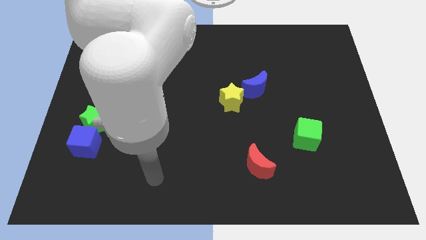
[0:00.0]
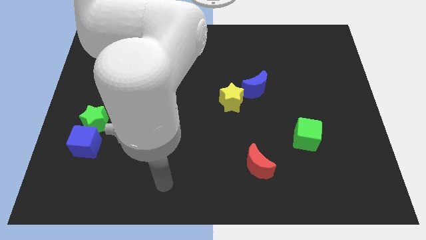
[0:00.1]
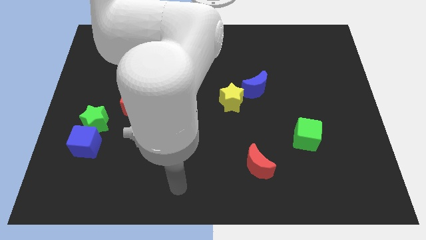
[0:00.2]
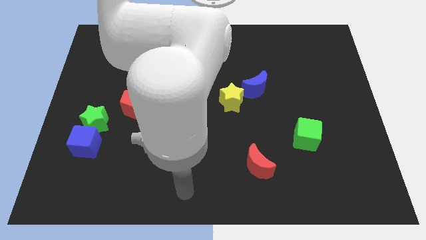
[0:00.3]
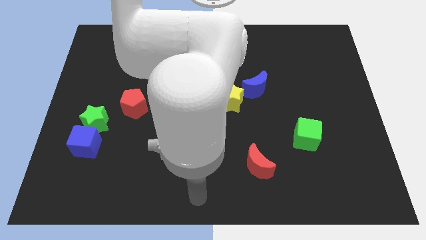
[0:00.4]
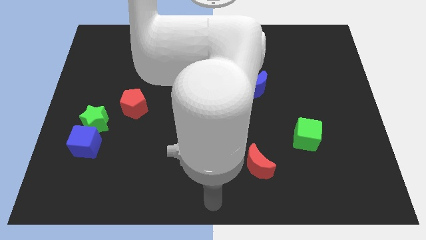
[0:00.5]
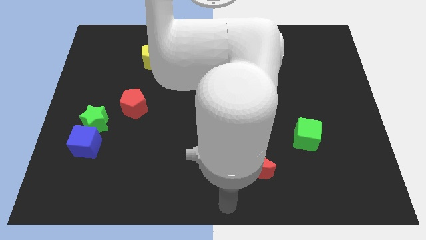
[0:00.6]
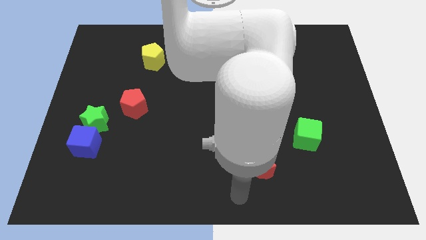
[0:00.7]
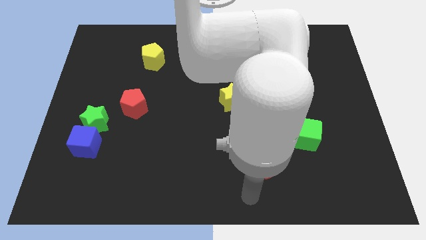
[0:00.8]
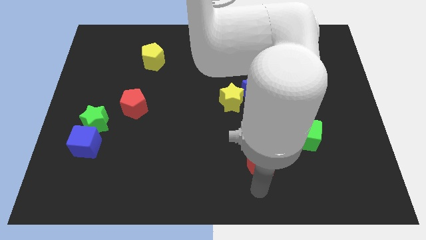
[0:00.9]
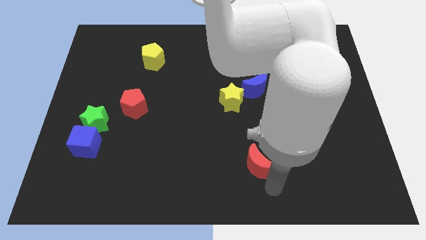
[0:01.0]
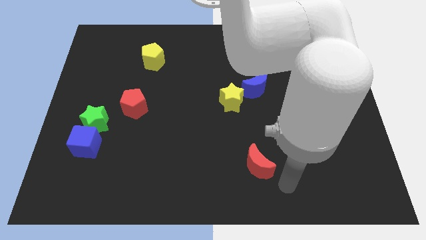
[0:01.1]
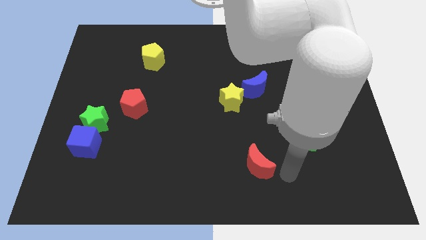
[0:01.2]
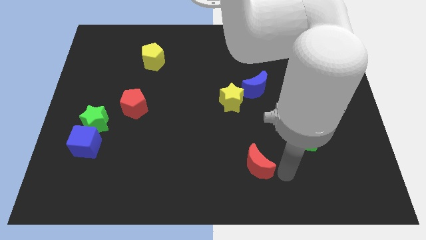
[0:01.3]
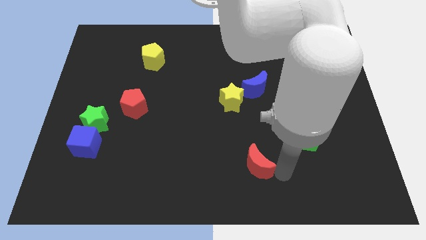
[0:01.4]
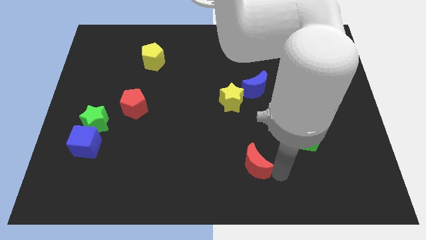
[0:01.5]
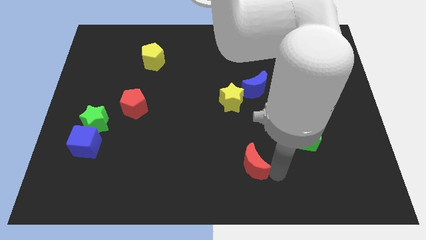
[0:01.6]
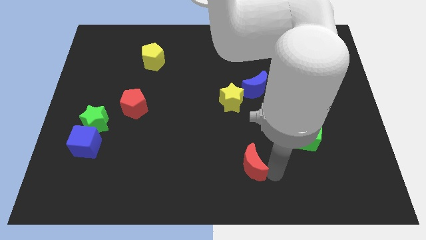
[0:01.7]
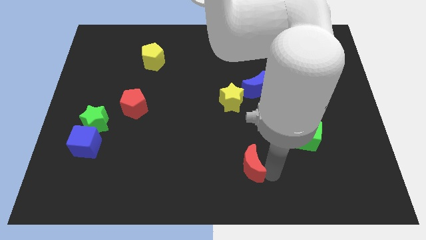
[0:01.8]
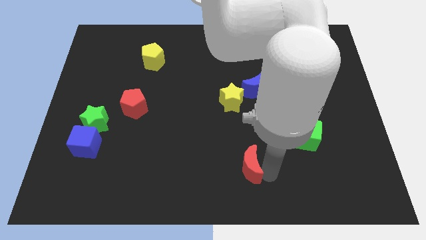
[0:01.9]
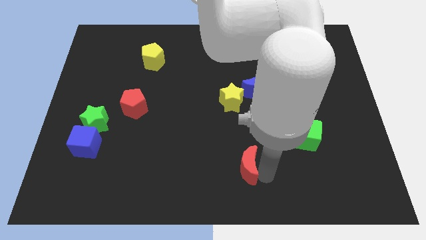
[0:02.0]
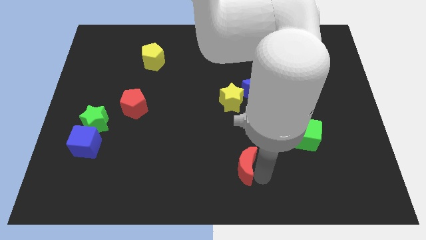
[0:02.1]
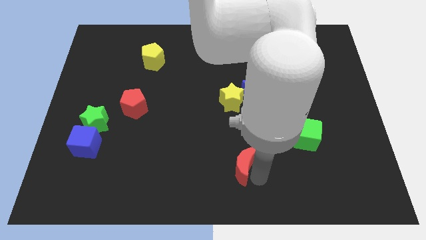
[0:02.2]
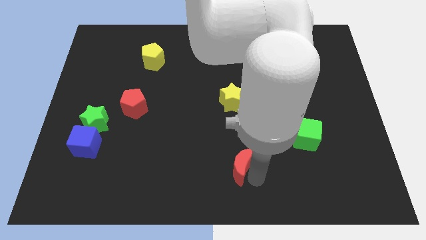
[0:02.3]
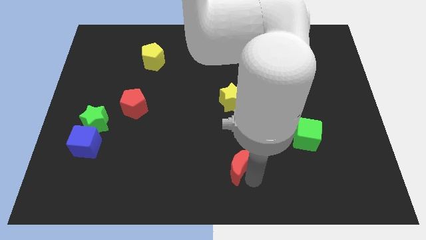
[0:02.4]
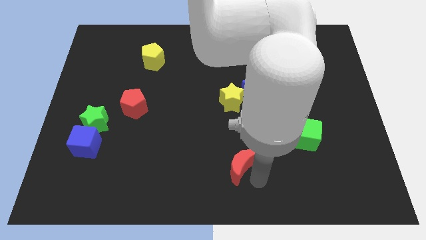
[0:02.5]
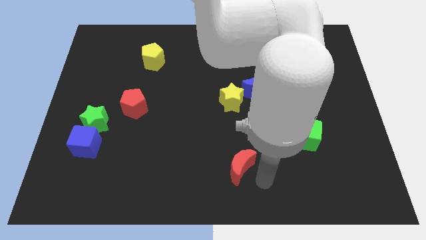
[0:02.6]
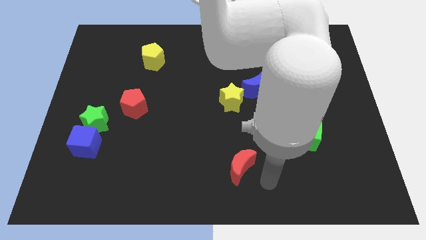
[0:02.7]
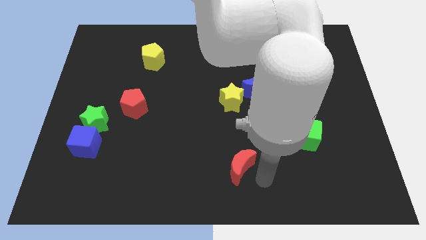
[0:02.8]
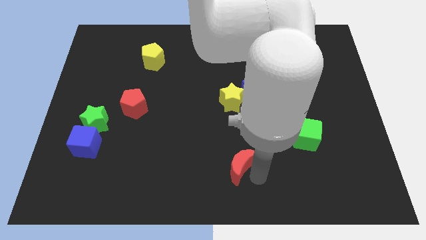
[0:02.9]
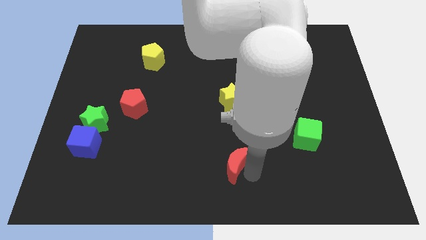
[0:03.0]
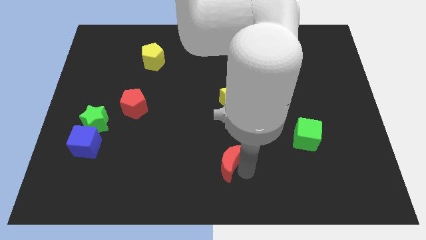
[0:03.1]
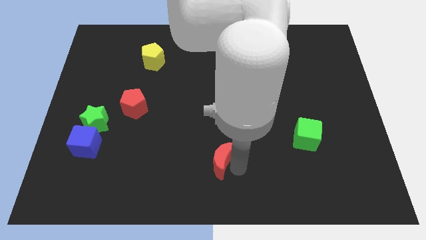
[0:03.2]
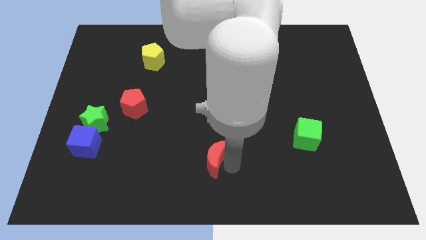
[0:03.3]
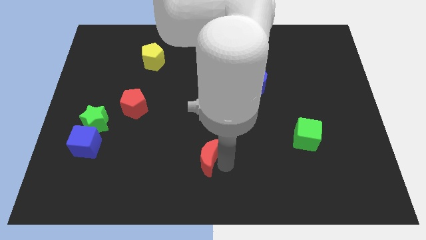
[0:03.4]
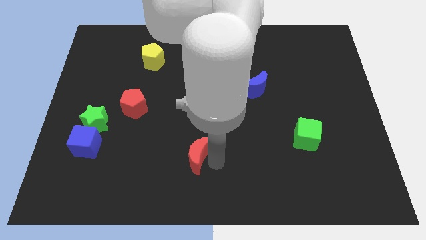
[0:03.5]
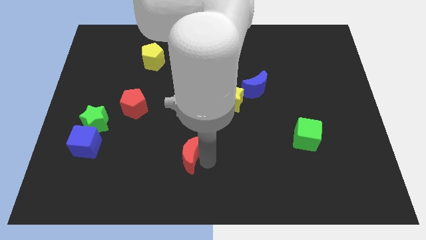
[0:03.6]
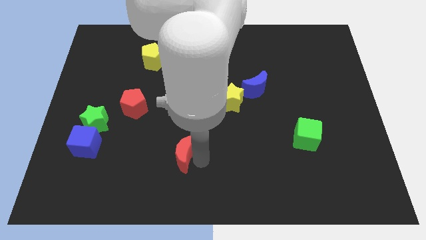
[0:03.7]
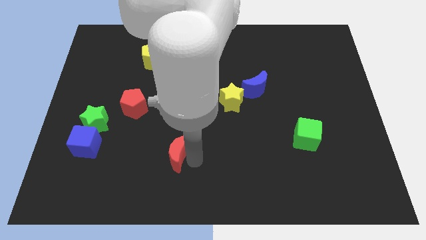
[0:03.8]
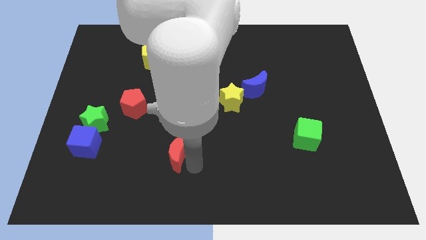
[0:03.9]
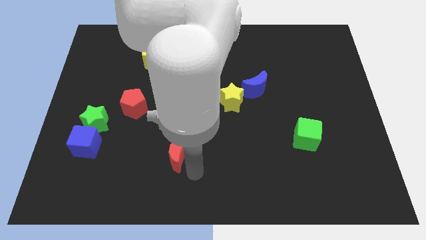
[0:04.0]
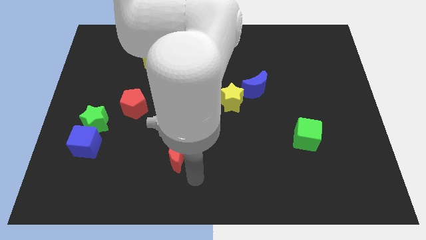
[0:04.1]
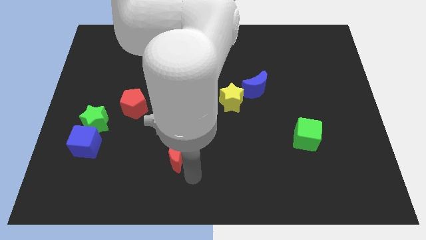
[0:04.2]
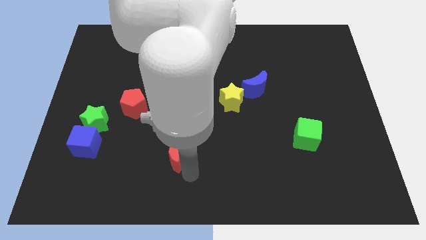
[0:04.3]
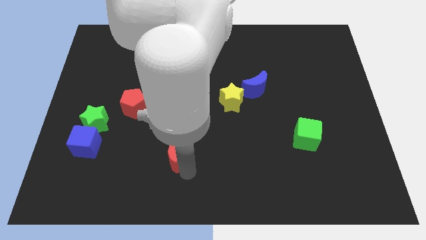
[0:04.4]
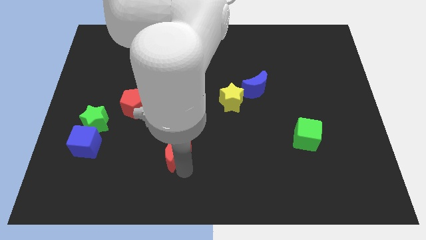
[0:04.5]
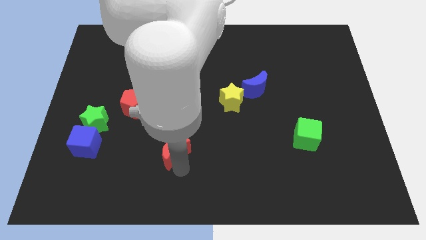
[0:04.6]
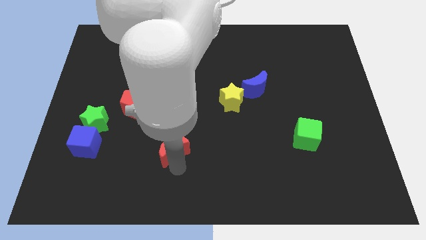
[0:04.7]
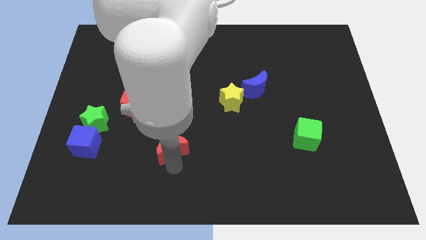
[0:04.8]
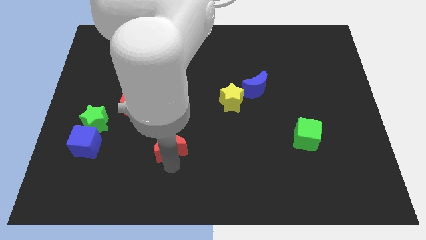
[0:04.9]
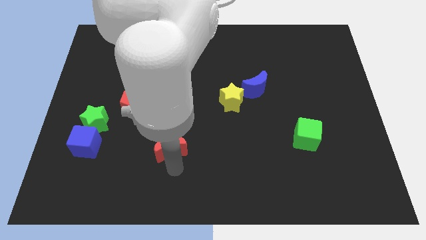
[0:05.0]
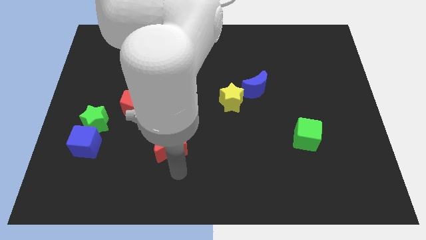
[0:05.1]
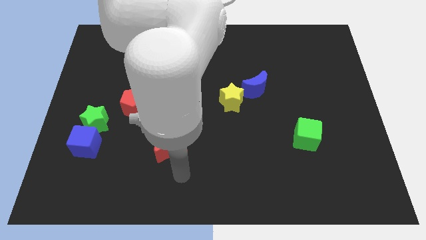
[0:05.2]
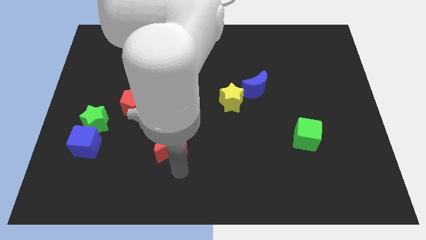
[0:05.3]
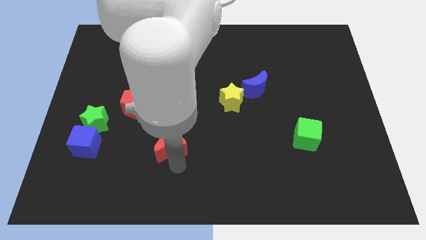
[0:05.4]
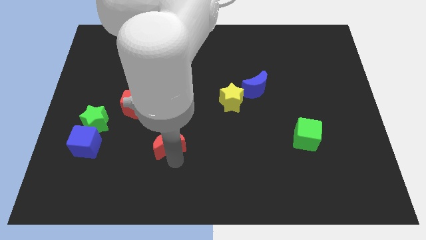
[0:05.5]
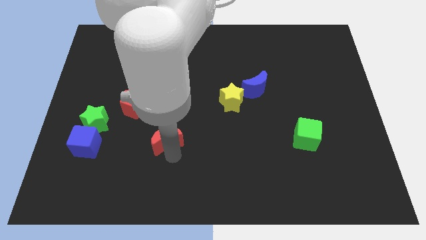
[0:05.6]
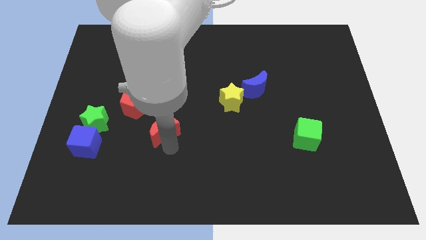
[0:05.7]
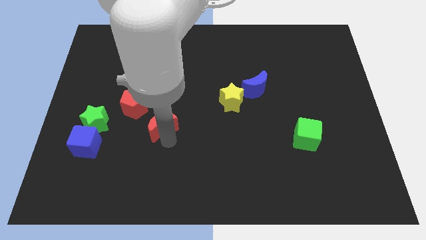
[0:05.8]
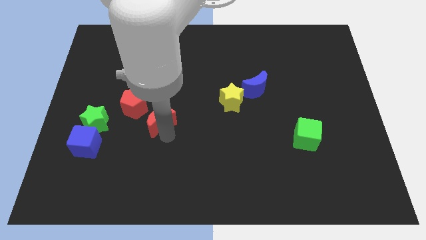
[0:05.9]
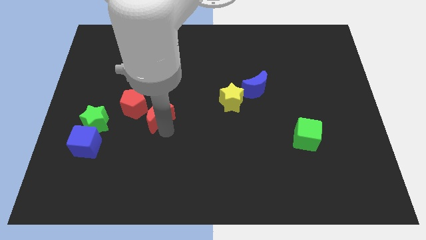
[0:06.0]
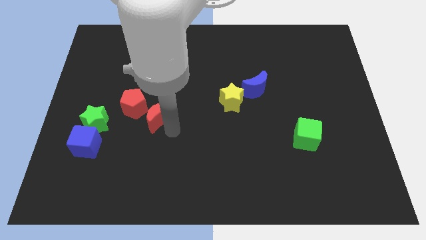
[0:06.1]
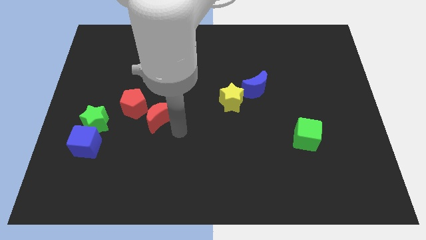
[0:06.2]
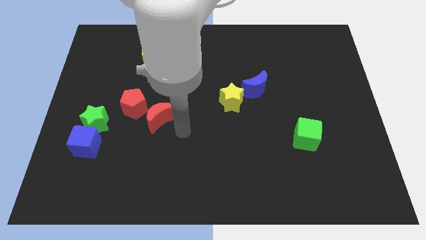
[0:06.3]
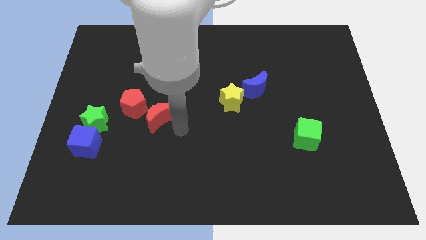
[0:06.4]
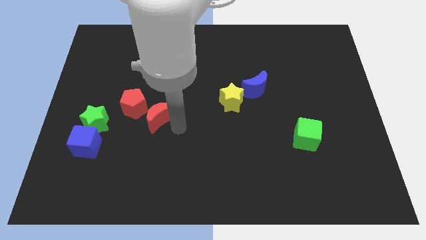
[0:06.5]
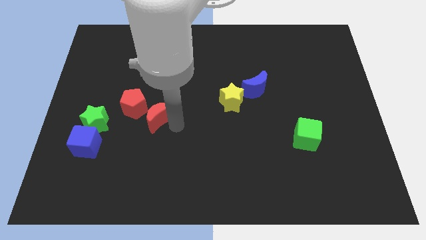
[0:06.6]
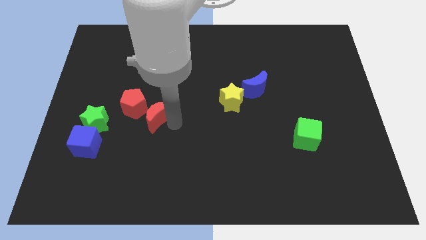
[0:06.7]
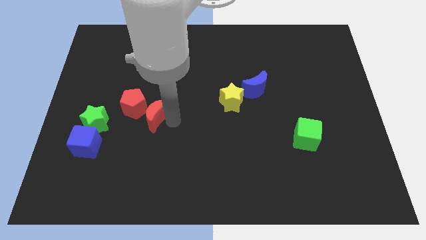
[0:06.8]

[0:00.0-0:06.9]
put the red moon next to the red pentagon

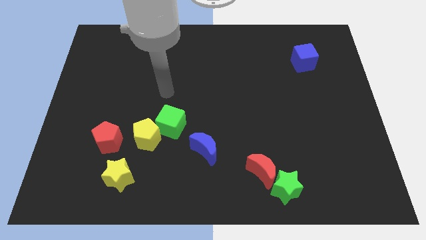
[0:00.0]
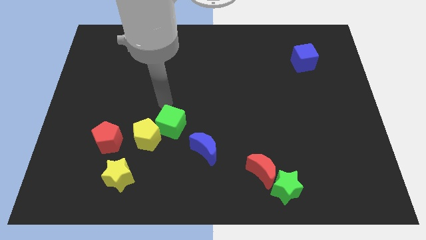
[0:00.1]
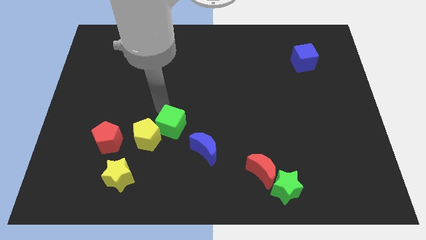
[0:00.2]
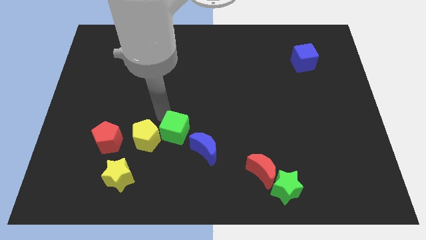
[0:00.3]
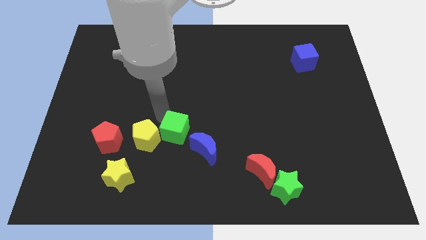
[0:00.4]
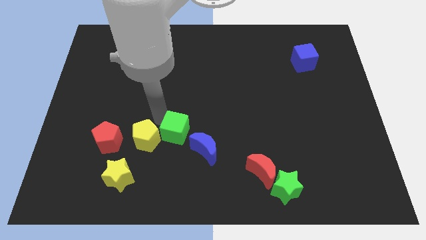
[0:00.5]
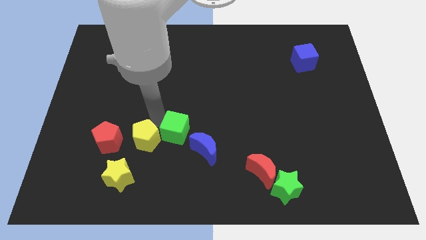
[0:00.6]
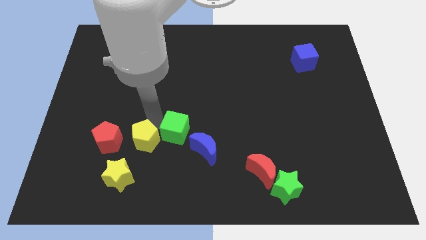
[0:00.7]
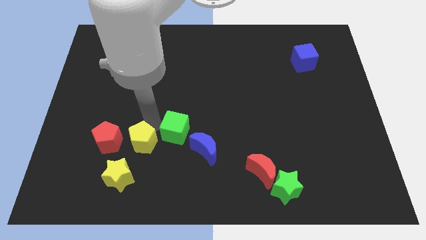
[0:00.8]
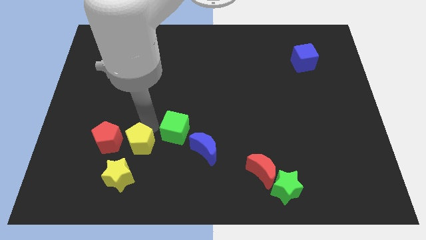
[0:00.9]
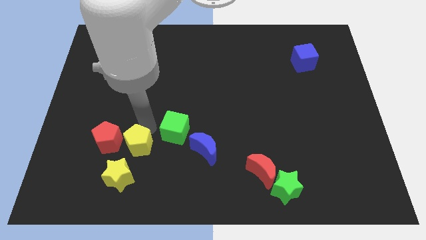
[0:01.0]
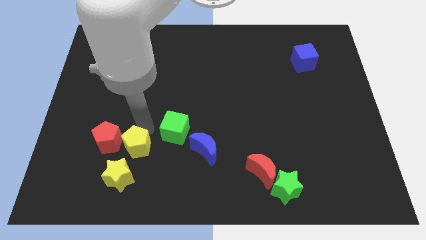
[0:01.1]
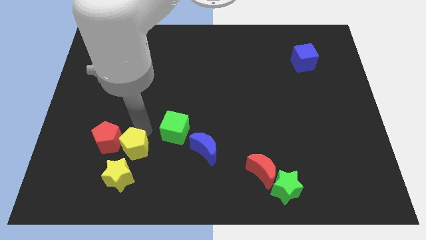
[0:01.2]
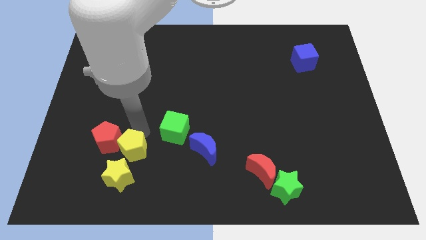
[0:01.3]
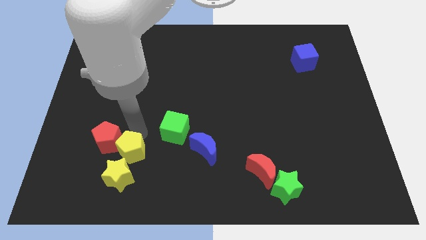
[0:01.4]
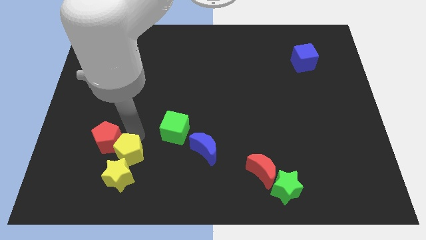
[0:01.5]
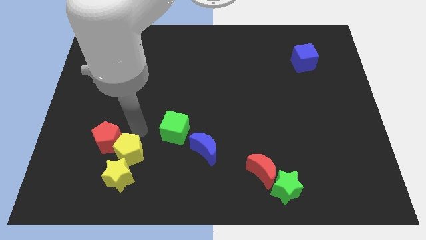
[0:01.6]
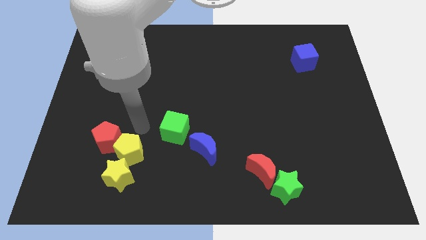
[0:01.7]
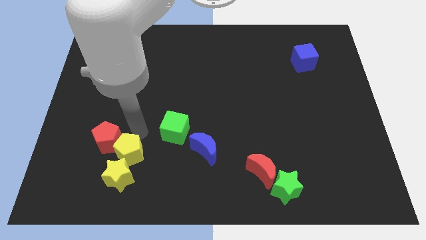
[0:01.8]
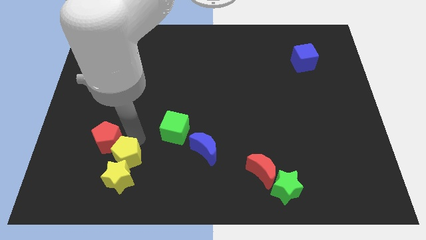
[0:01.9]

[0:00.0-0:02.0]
push the yellow pentagon next to the yellow star
